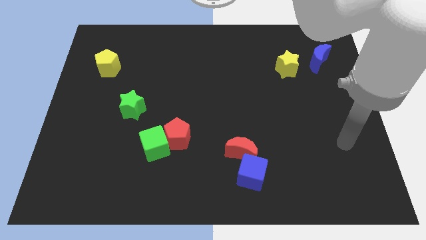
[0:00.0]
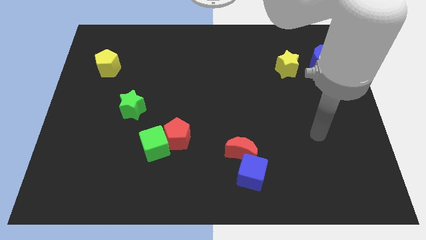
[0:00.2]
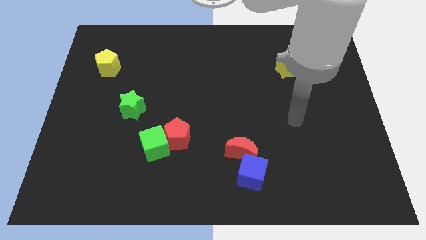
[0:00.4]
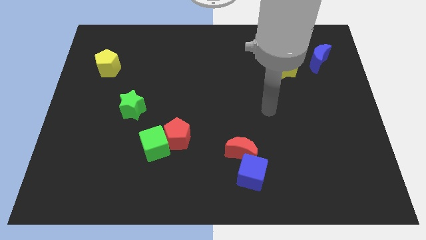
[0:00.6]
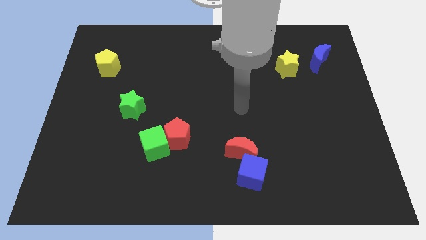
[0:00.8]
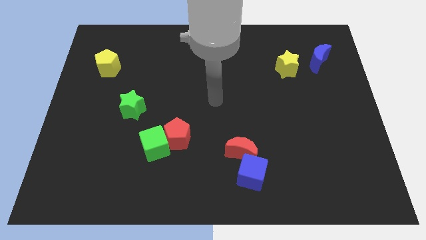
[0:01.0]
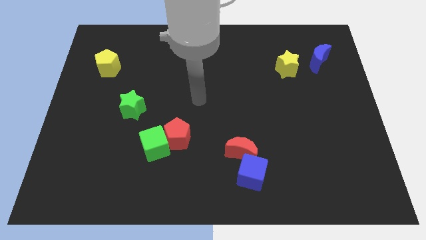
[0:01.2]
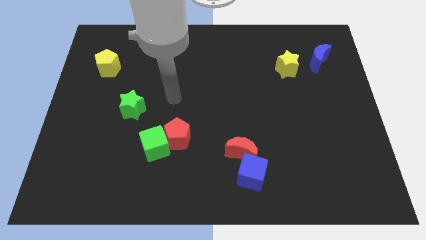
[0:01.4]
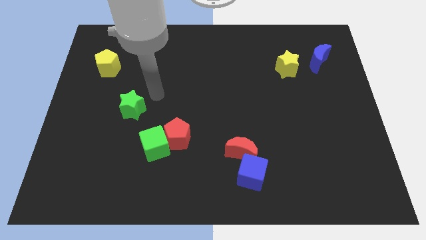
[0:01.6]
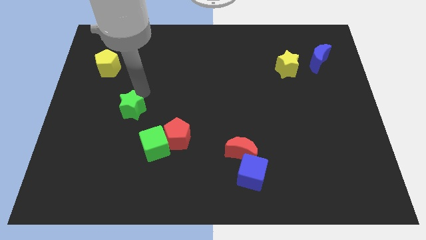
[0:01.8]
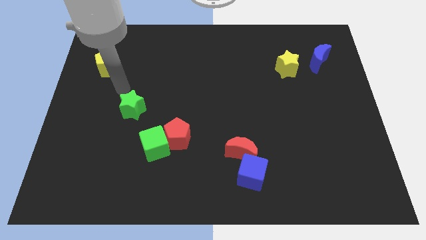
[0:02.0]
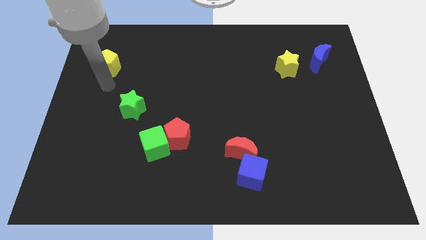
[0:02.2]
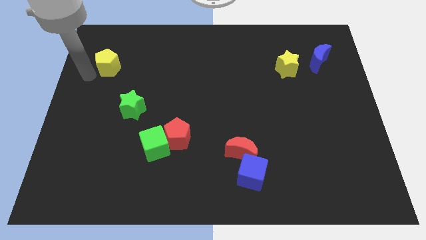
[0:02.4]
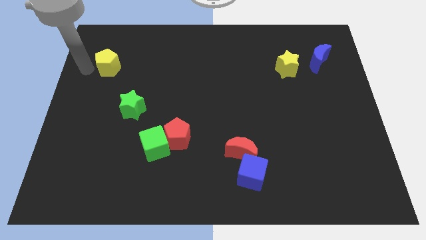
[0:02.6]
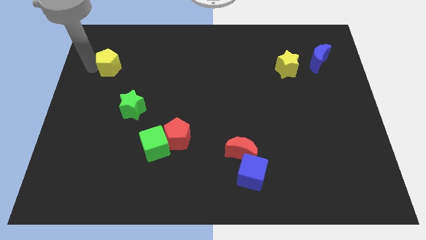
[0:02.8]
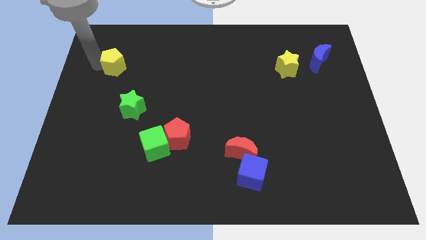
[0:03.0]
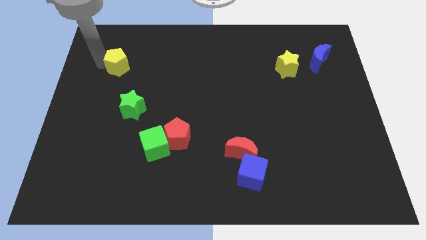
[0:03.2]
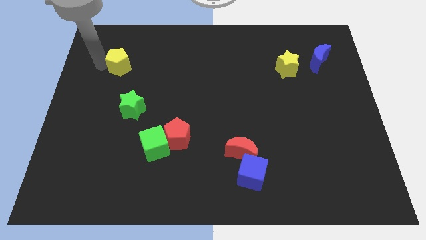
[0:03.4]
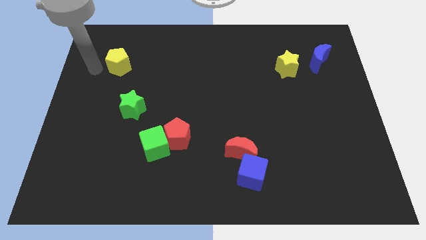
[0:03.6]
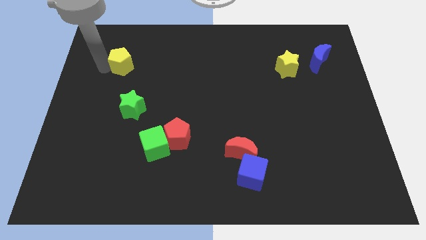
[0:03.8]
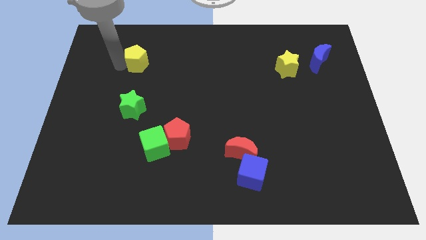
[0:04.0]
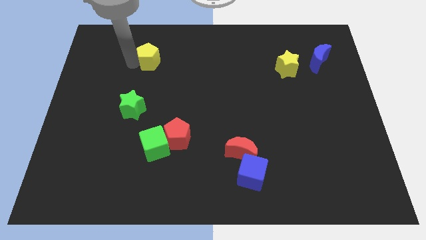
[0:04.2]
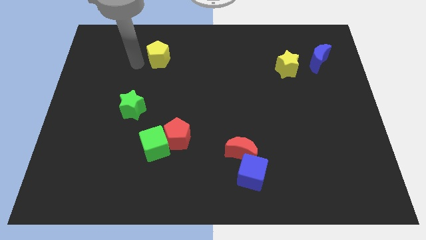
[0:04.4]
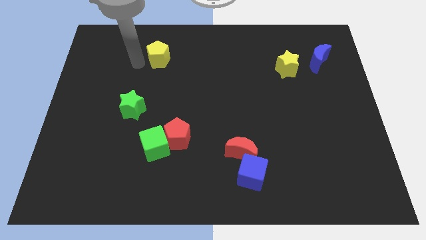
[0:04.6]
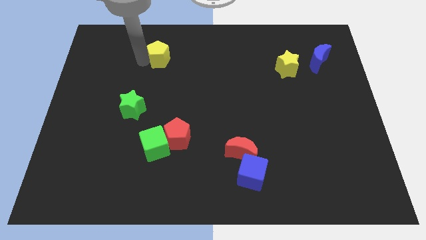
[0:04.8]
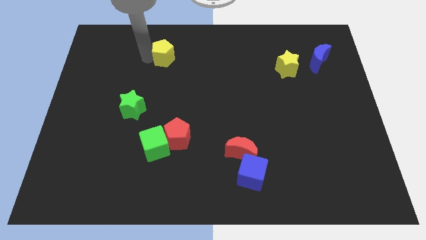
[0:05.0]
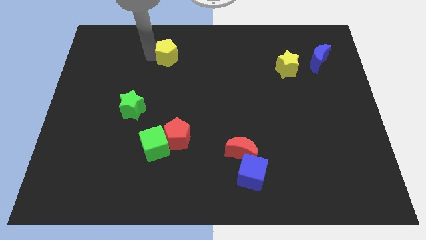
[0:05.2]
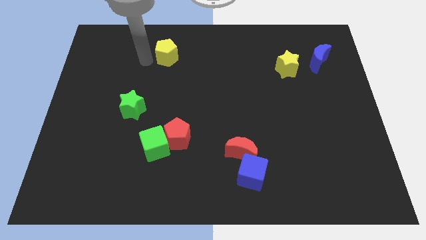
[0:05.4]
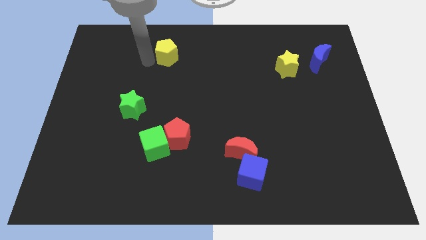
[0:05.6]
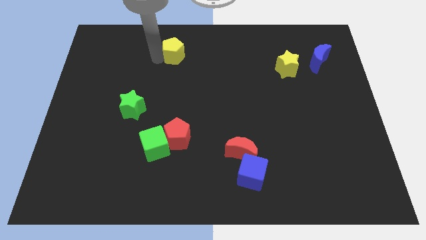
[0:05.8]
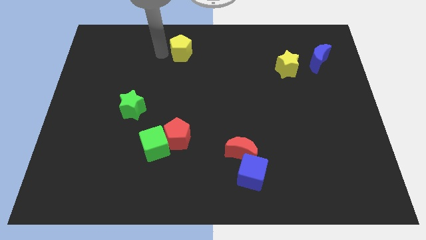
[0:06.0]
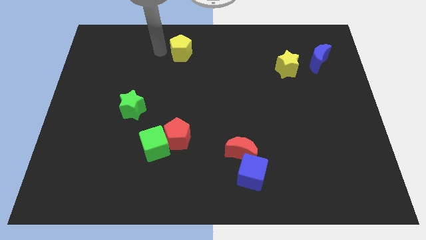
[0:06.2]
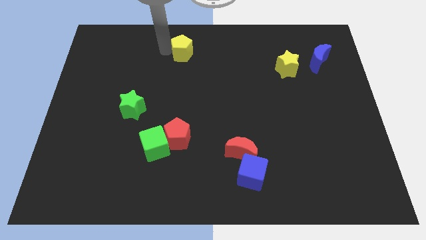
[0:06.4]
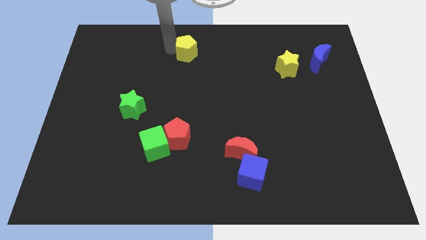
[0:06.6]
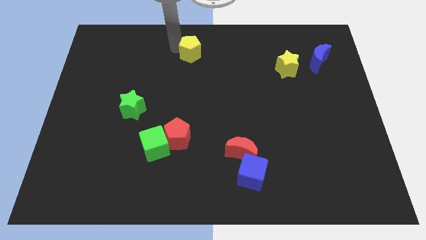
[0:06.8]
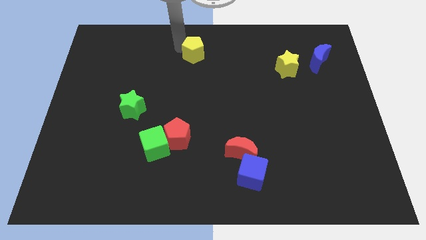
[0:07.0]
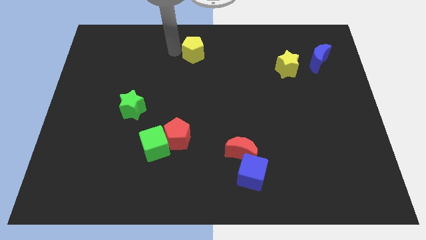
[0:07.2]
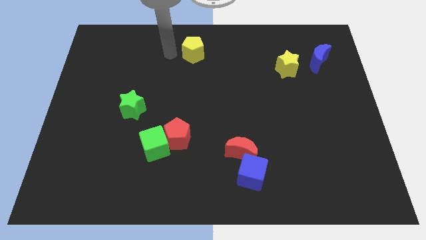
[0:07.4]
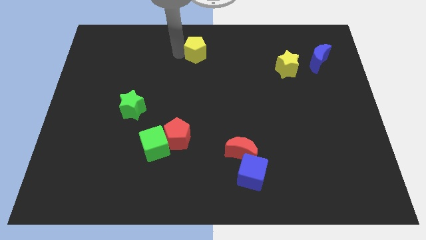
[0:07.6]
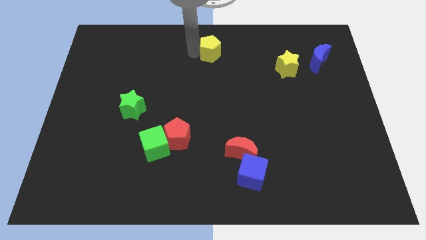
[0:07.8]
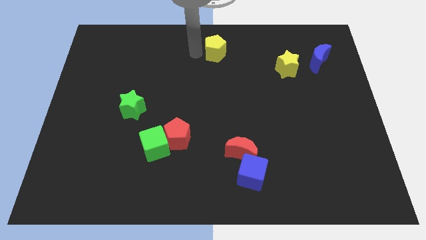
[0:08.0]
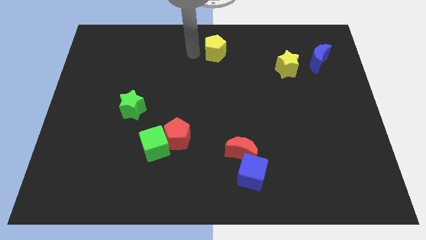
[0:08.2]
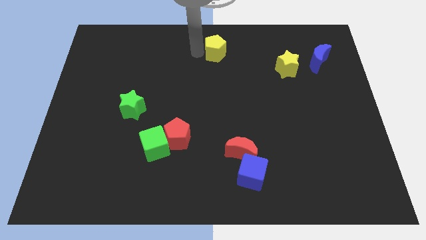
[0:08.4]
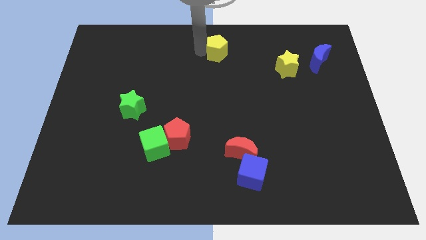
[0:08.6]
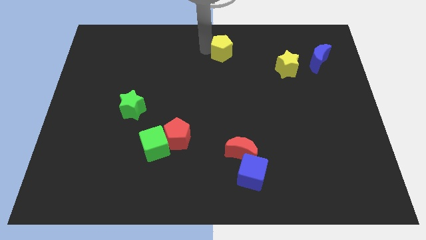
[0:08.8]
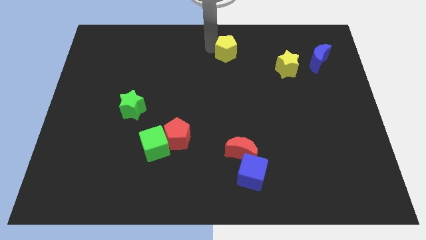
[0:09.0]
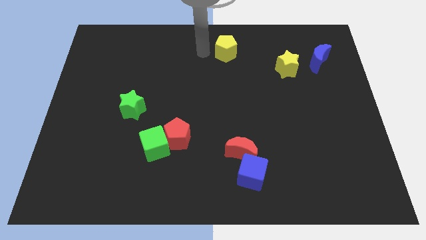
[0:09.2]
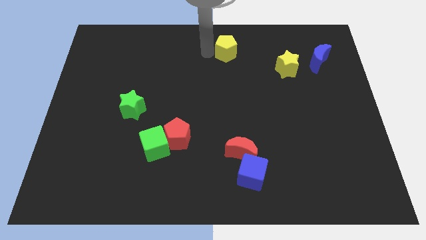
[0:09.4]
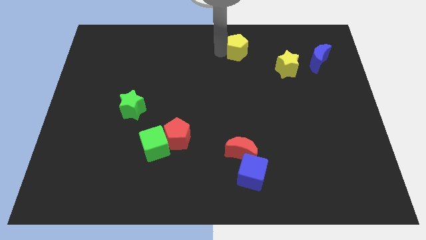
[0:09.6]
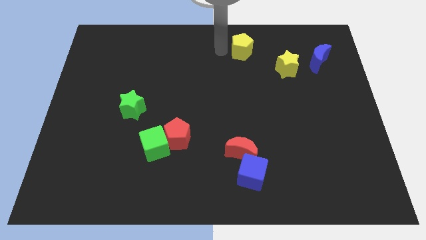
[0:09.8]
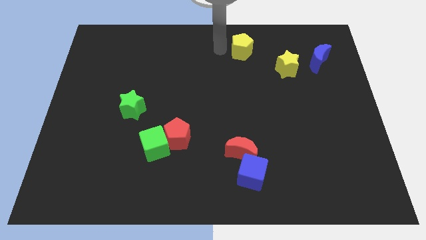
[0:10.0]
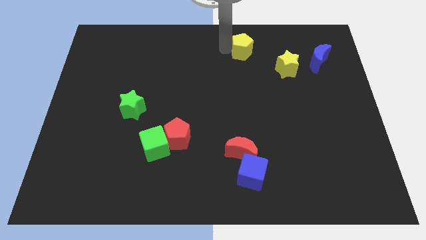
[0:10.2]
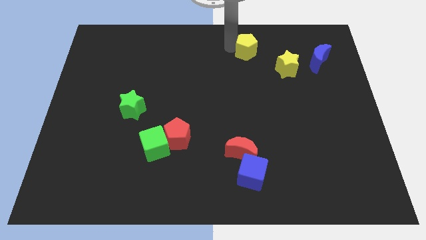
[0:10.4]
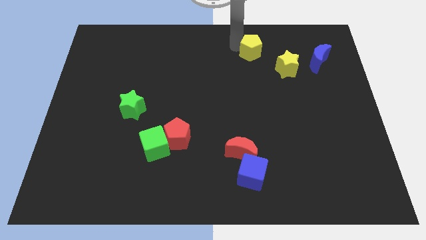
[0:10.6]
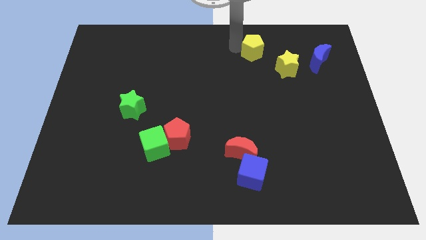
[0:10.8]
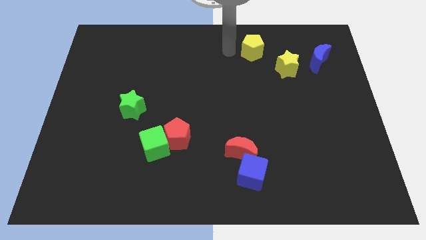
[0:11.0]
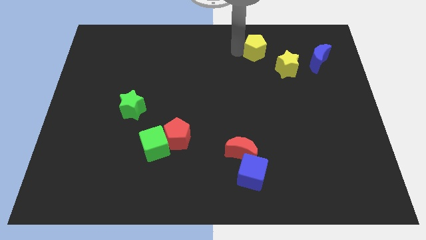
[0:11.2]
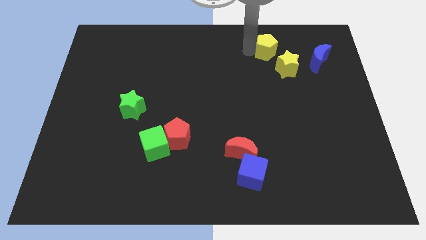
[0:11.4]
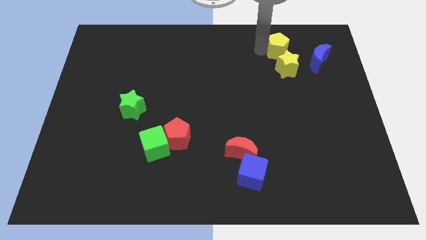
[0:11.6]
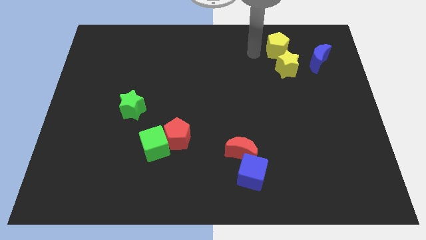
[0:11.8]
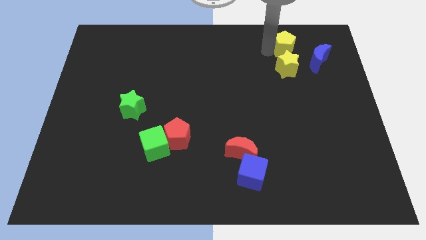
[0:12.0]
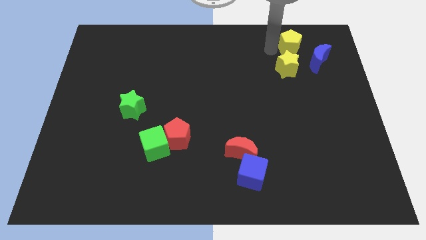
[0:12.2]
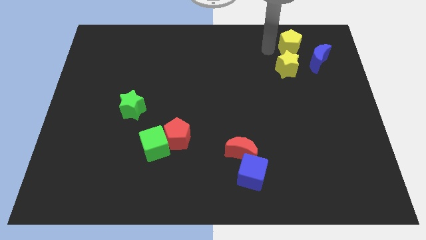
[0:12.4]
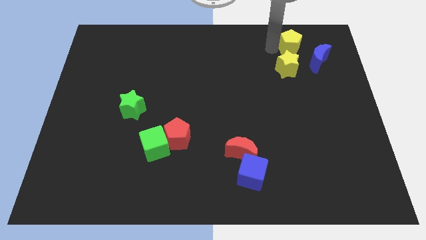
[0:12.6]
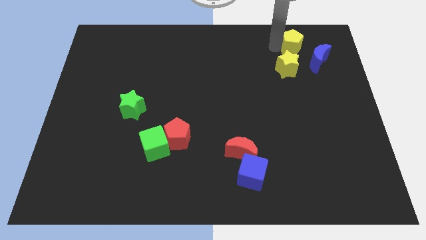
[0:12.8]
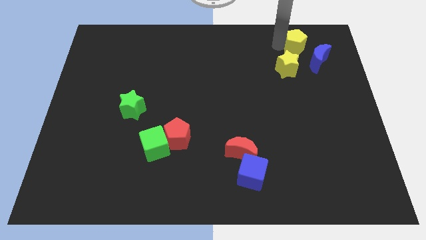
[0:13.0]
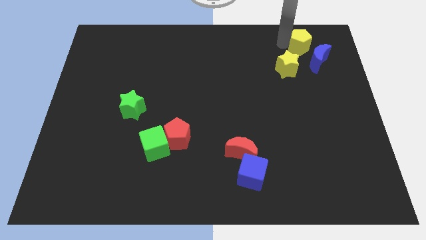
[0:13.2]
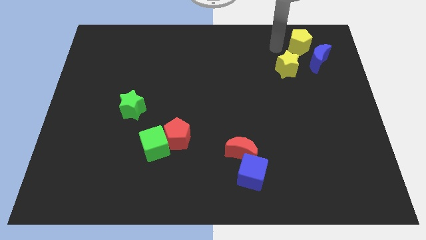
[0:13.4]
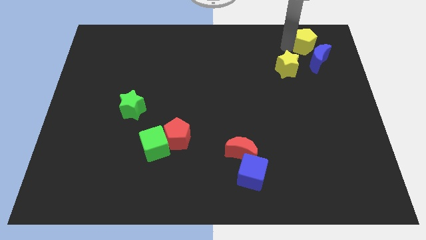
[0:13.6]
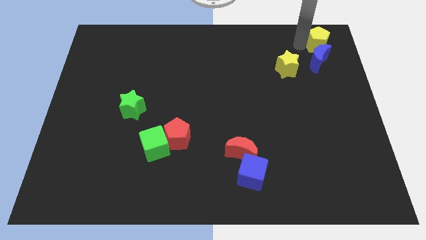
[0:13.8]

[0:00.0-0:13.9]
put the yellow pentagon to the top right corner
